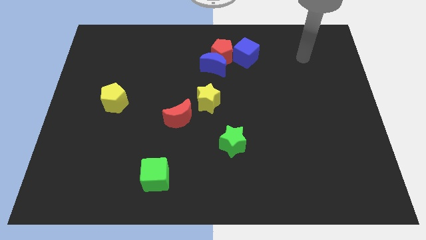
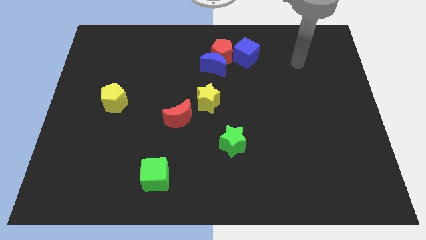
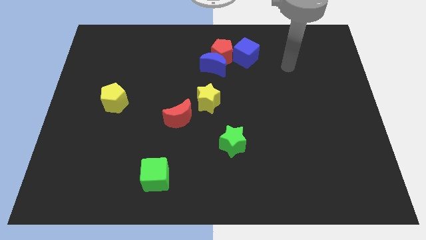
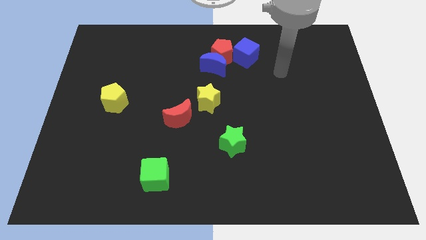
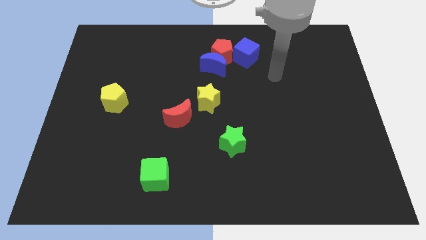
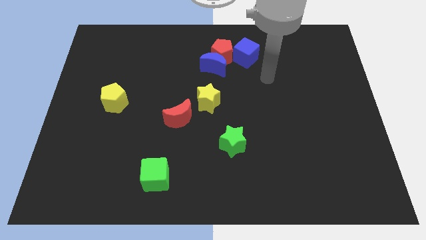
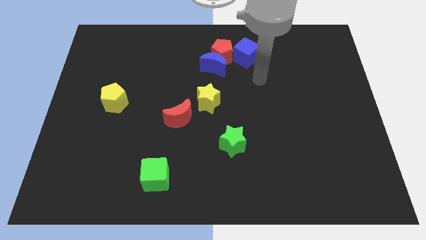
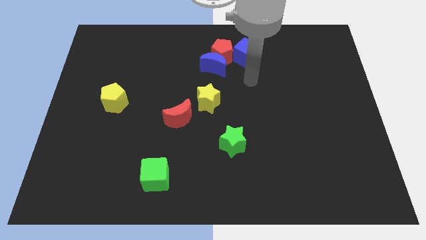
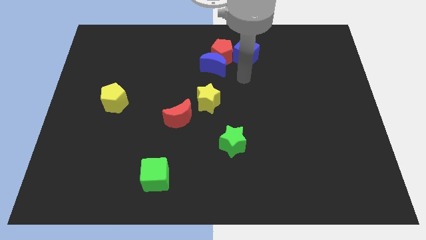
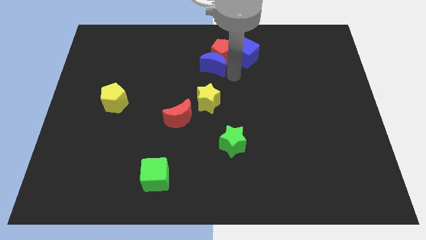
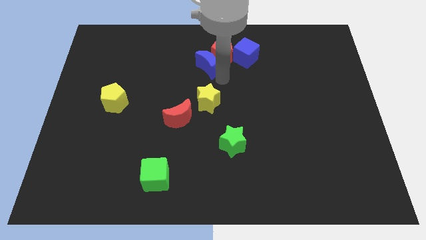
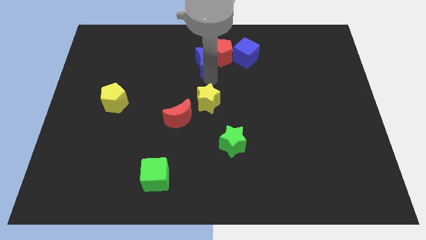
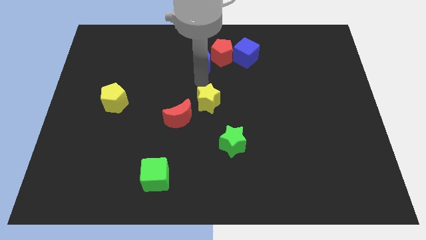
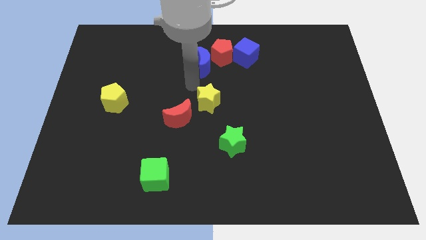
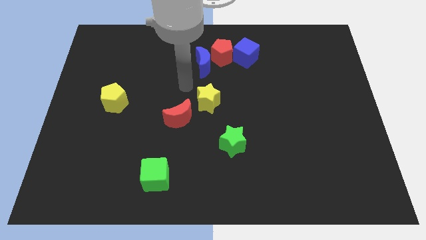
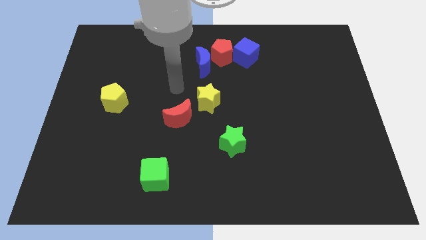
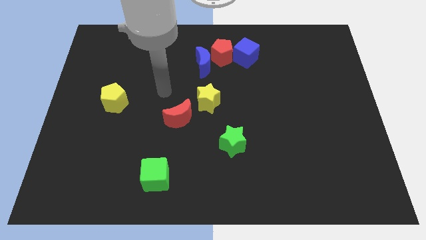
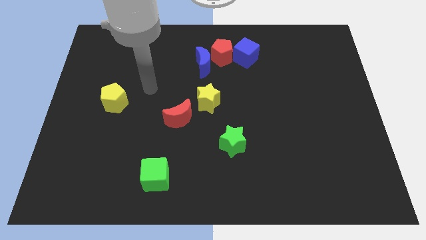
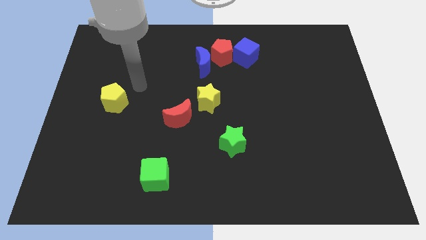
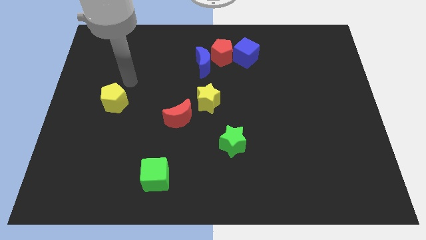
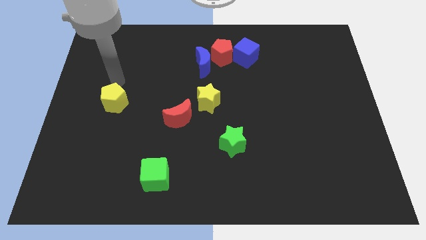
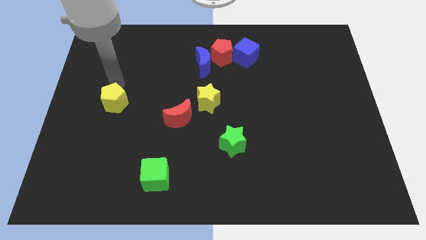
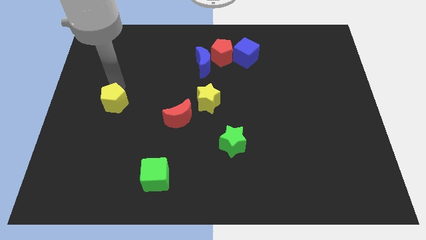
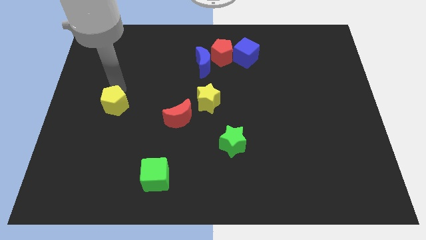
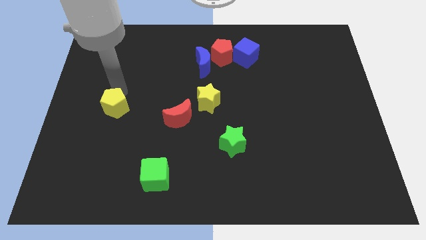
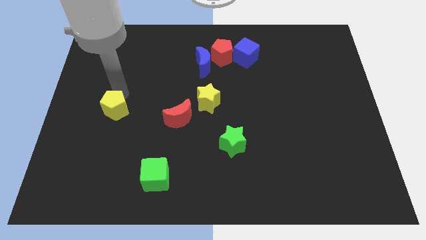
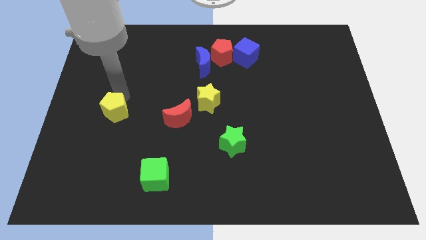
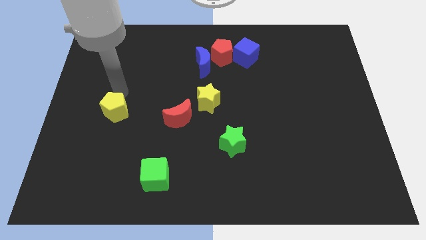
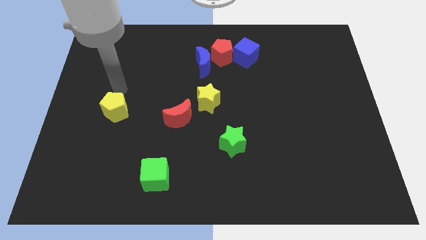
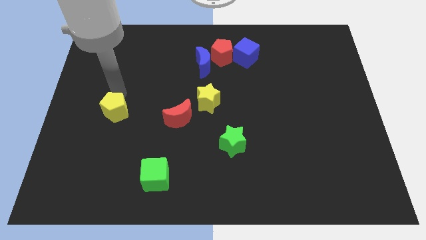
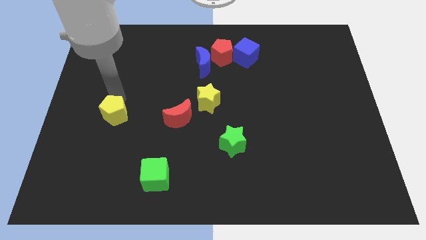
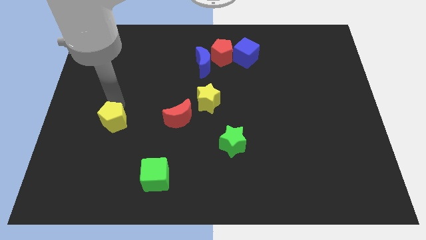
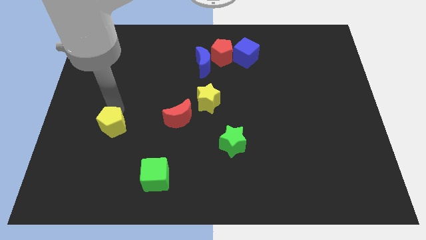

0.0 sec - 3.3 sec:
slightly slide the yellow pentagon down

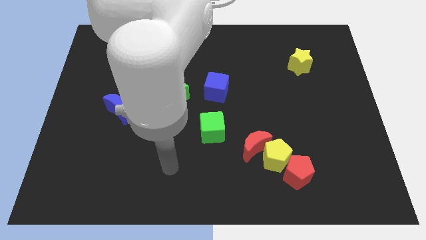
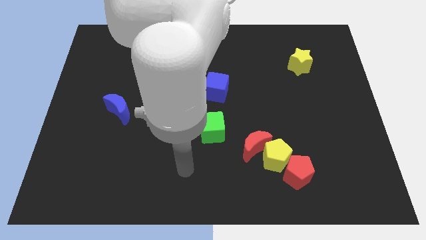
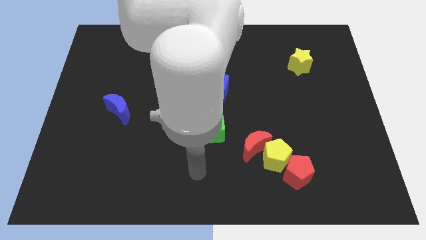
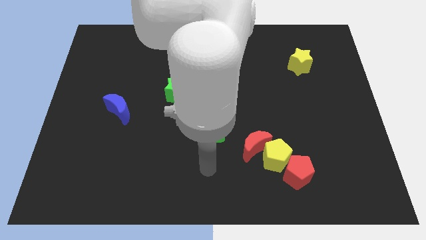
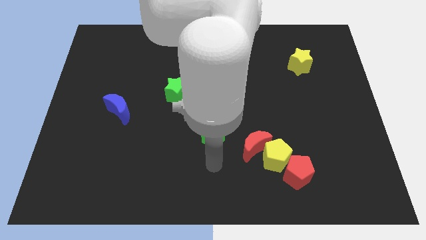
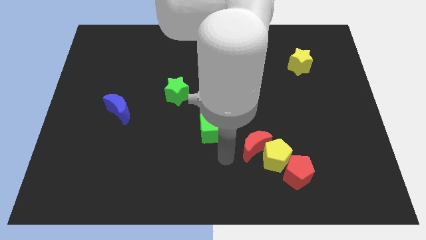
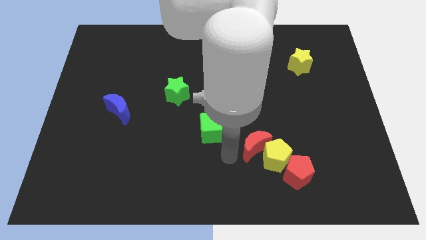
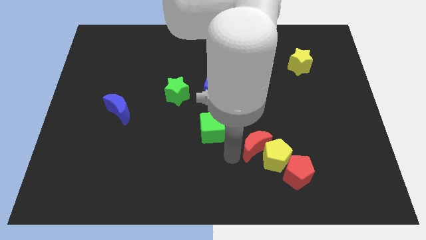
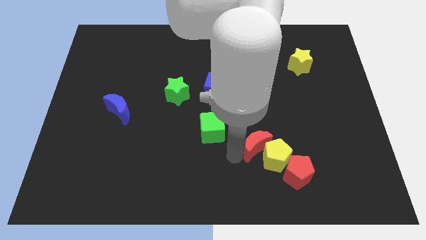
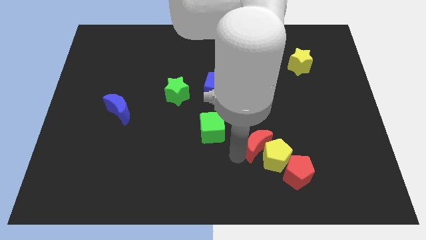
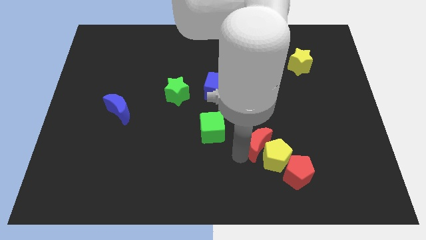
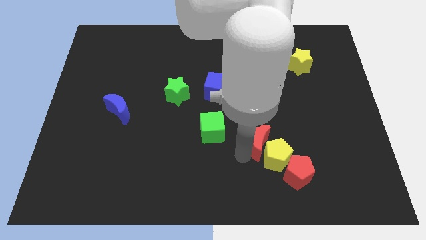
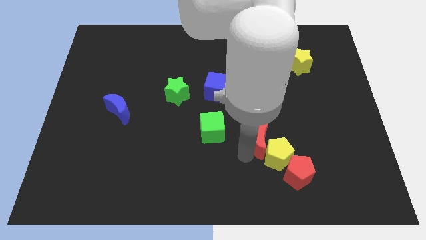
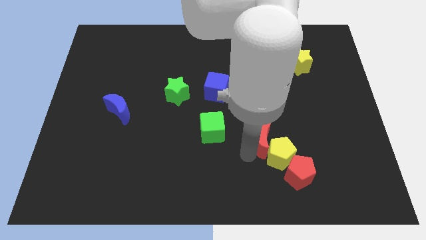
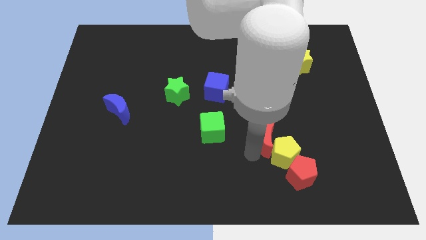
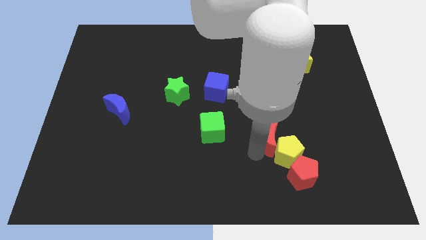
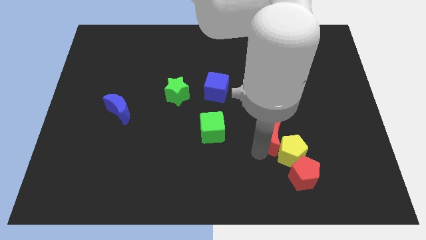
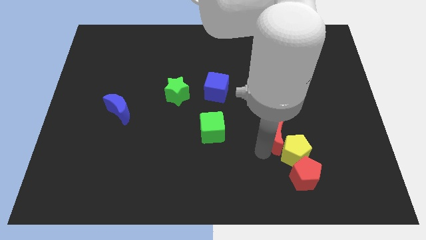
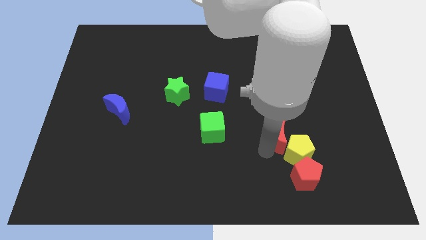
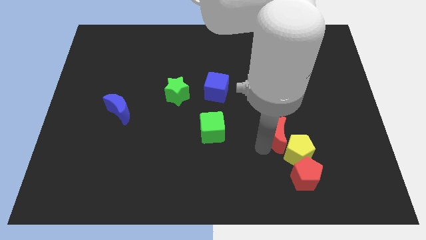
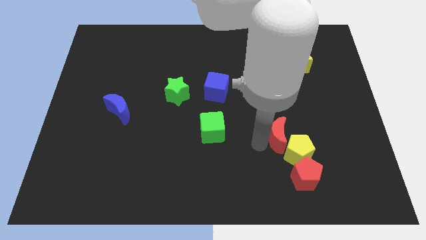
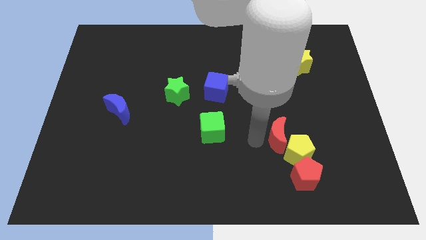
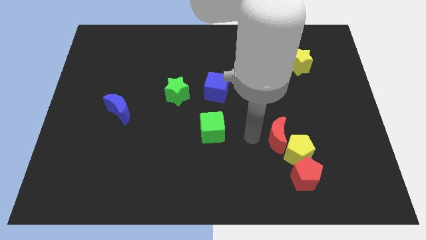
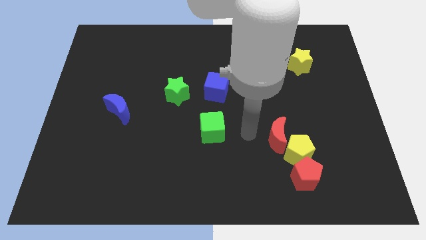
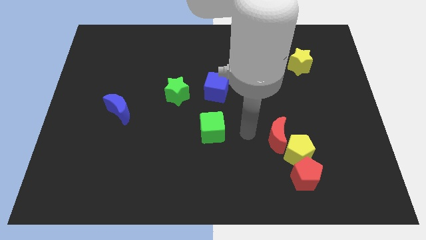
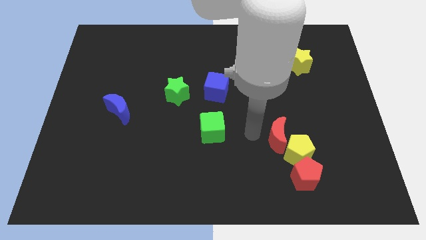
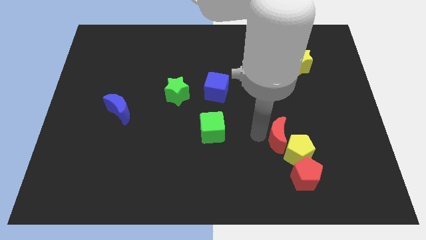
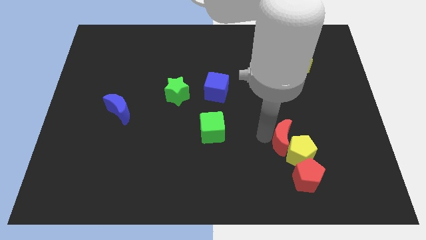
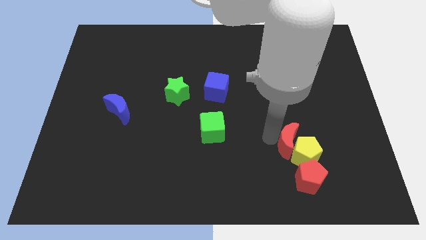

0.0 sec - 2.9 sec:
push the red moon to the right slightly

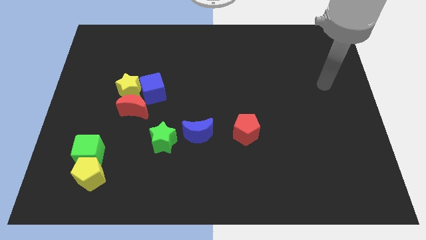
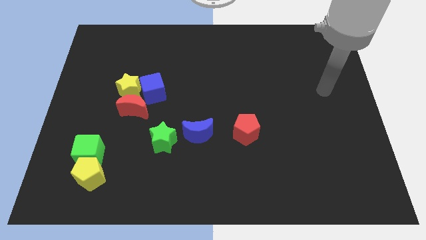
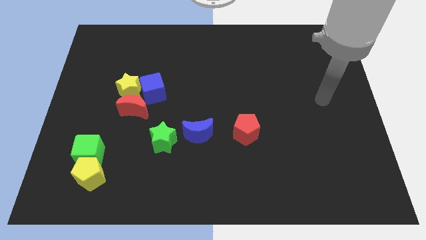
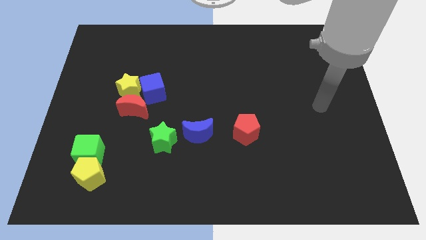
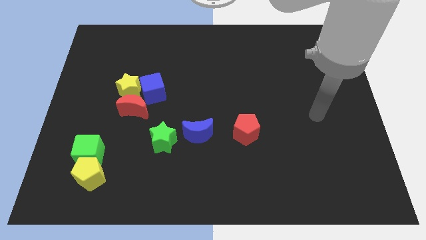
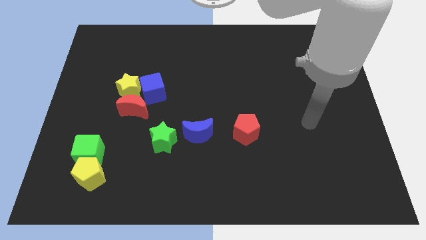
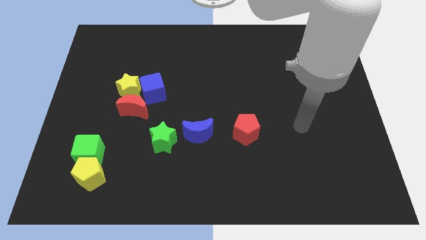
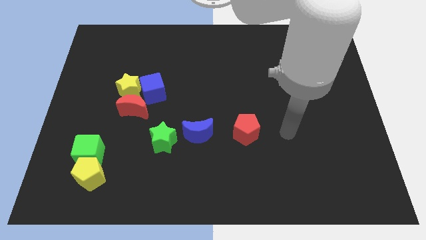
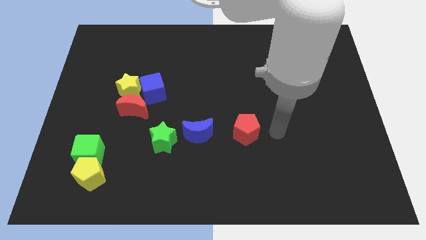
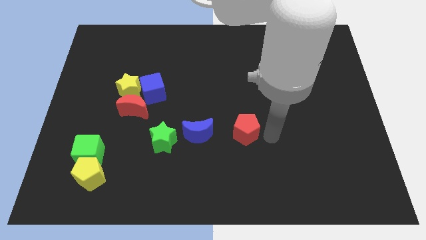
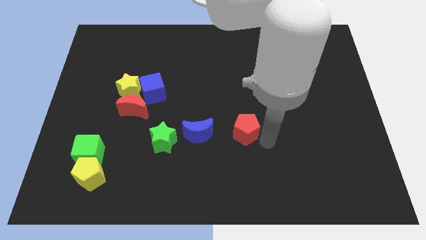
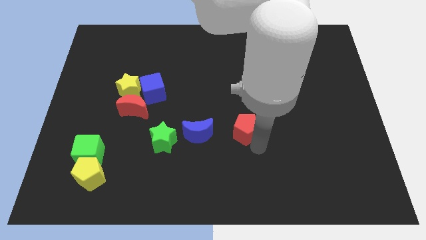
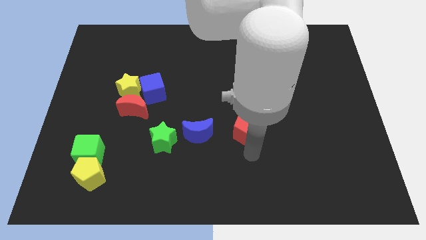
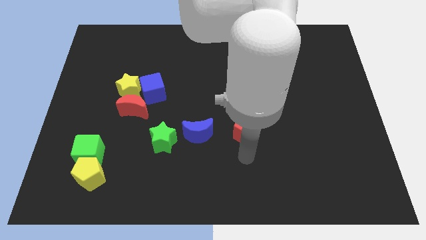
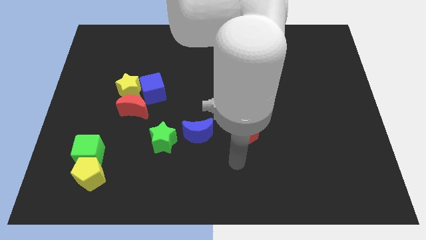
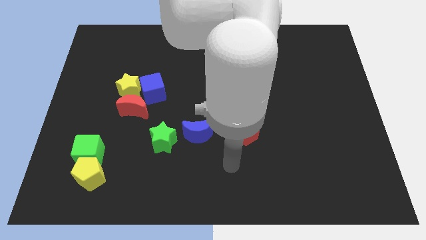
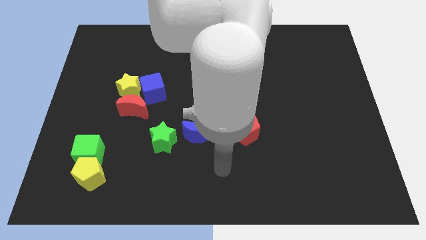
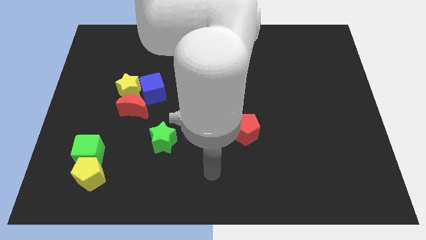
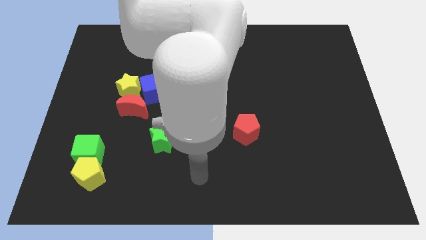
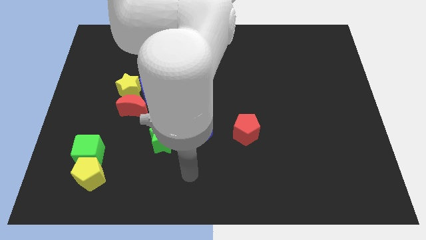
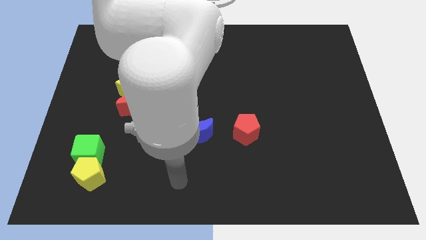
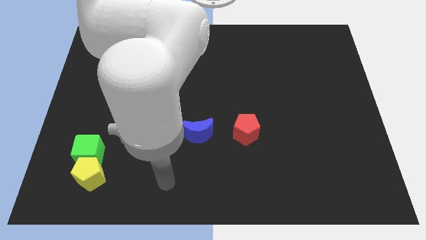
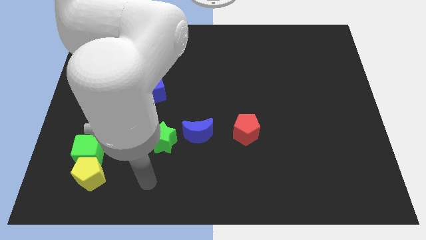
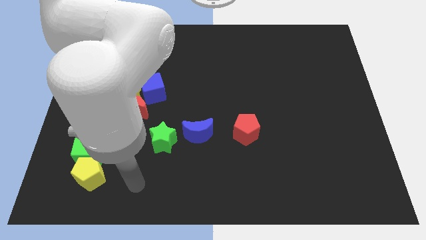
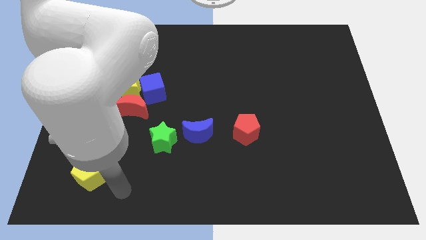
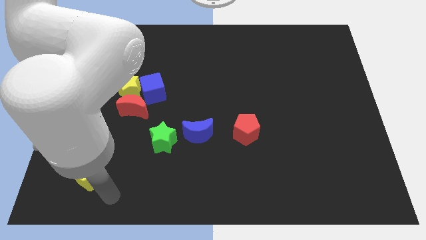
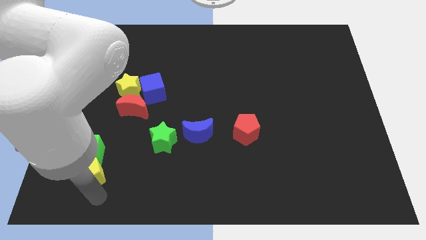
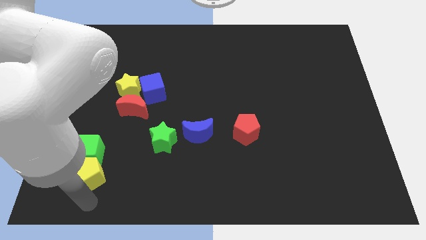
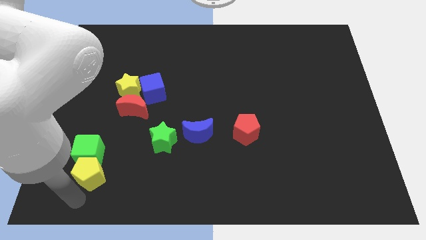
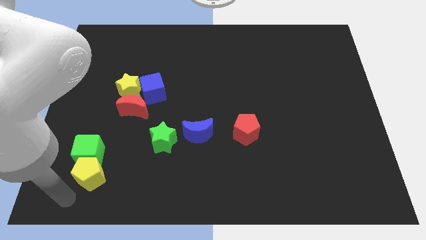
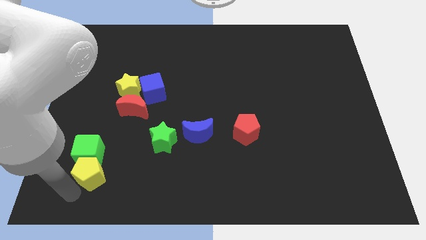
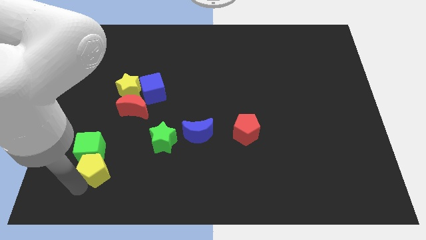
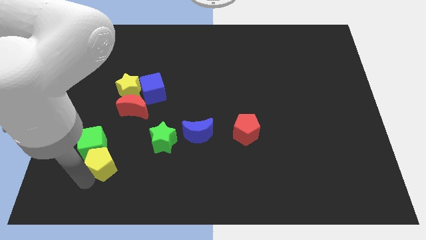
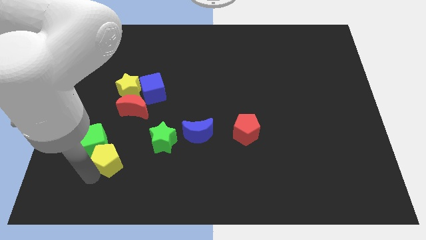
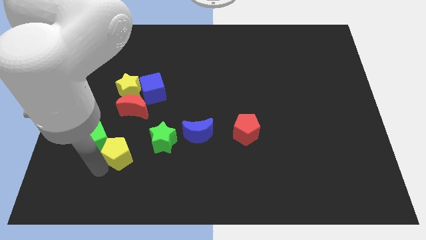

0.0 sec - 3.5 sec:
slide the yellow pentagon a little diagonally upwards and to the right
